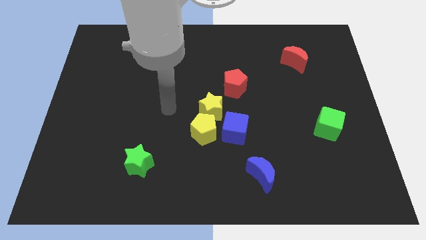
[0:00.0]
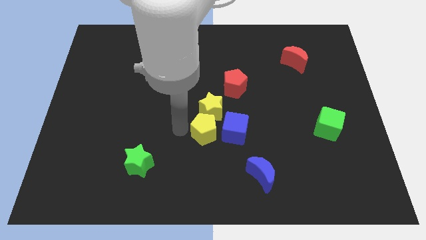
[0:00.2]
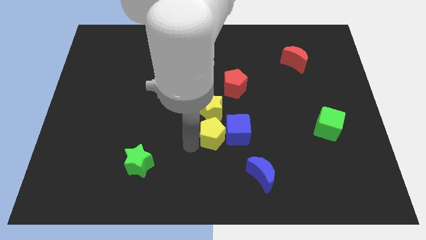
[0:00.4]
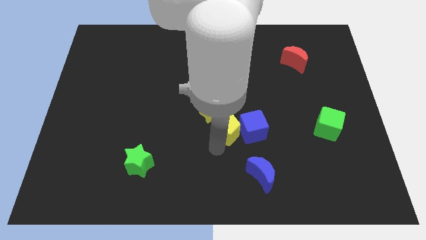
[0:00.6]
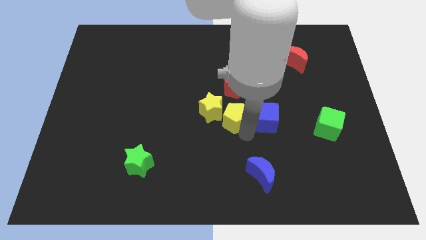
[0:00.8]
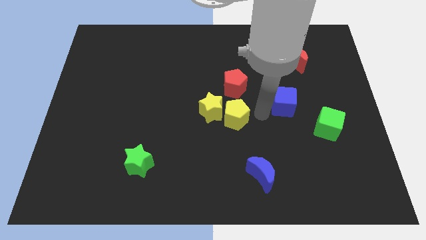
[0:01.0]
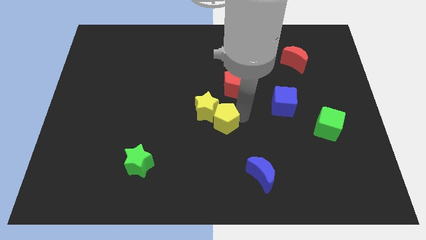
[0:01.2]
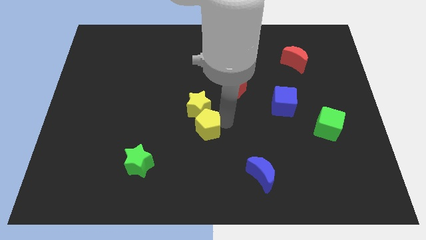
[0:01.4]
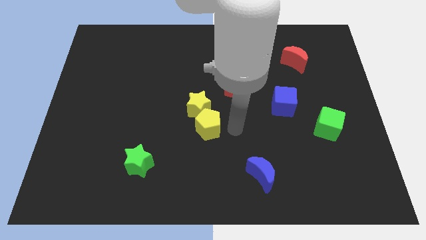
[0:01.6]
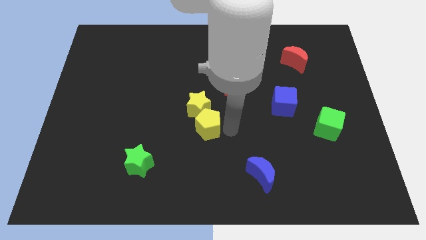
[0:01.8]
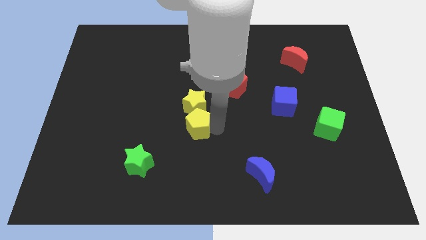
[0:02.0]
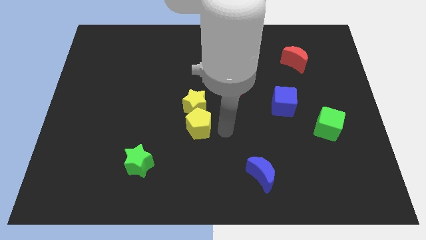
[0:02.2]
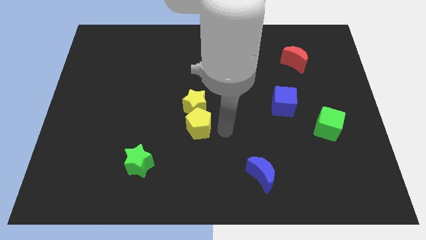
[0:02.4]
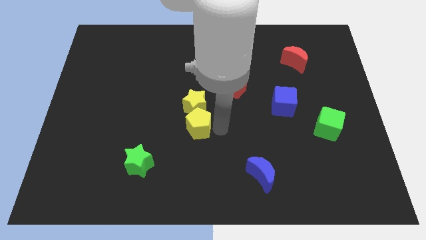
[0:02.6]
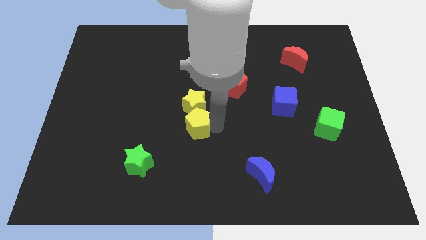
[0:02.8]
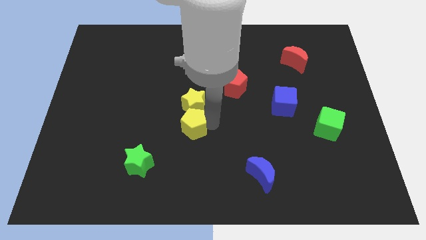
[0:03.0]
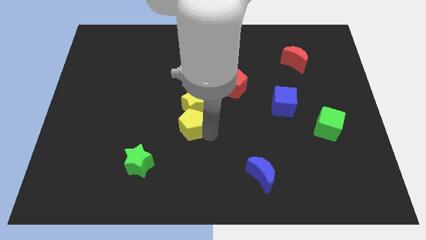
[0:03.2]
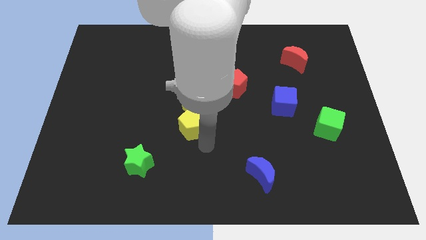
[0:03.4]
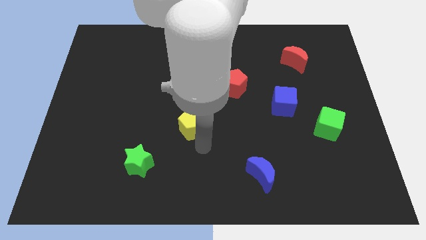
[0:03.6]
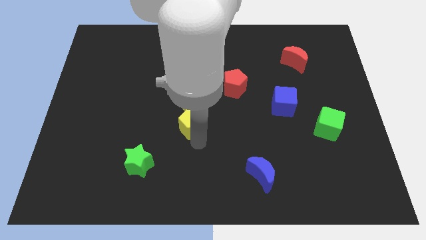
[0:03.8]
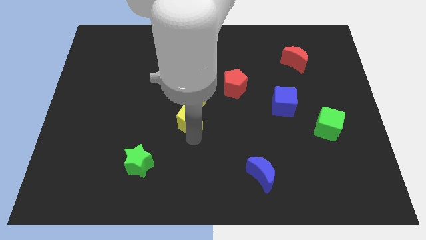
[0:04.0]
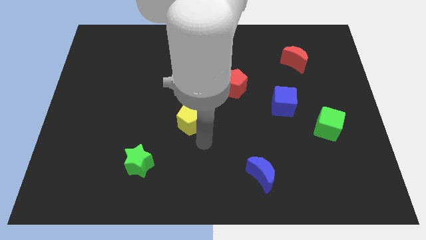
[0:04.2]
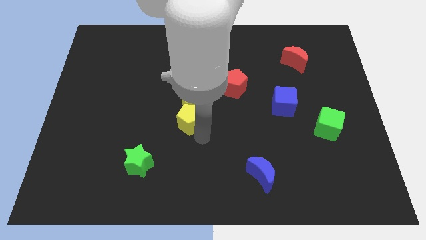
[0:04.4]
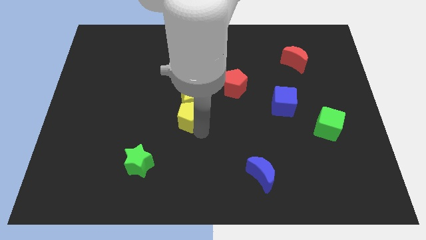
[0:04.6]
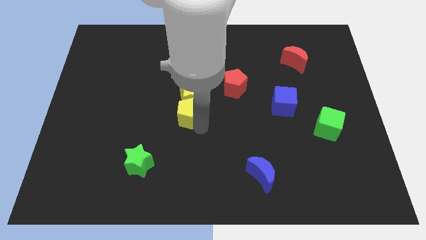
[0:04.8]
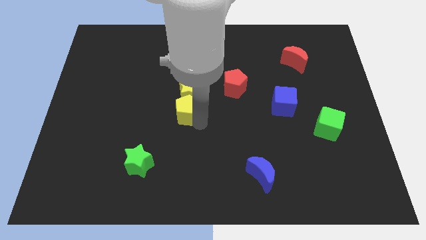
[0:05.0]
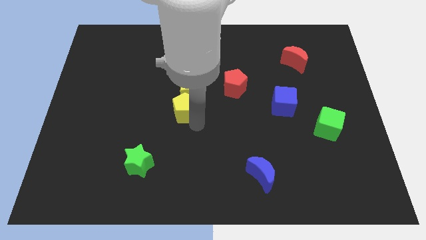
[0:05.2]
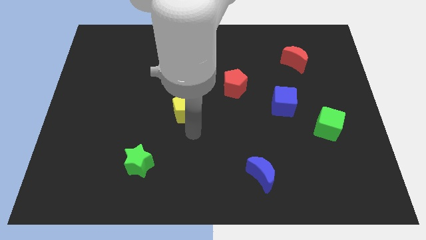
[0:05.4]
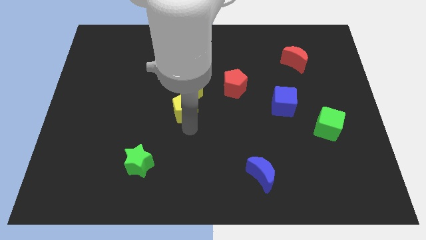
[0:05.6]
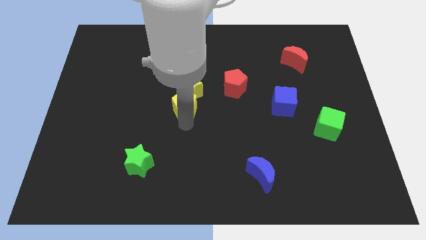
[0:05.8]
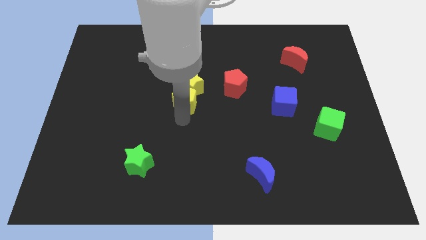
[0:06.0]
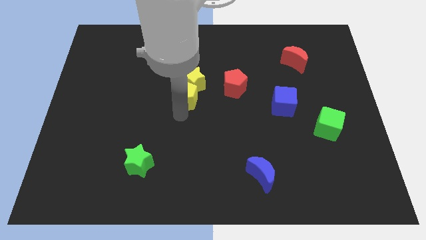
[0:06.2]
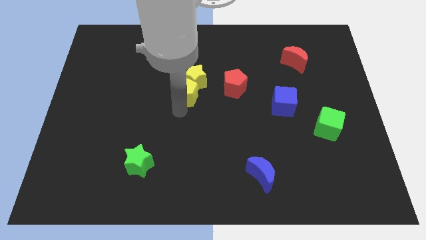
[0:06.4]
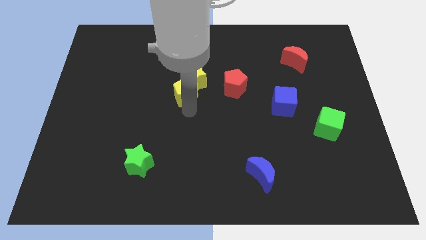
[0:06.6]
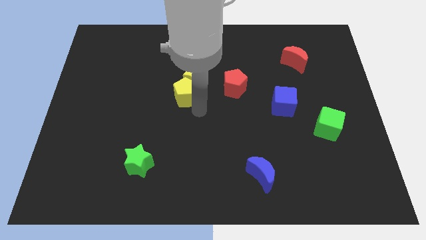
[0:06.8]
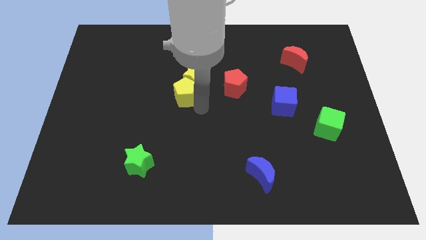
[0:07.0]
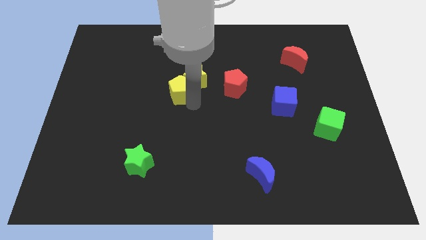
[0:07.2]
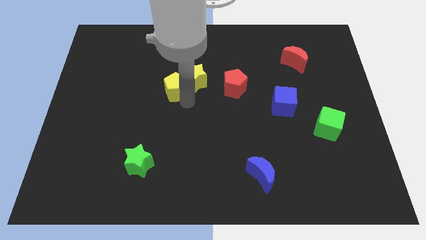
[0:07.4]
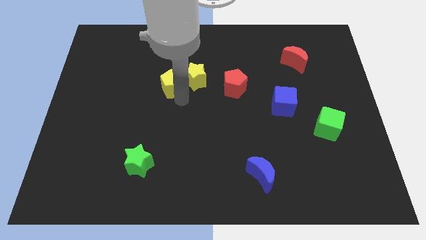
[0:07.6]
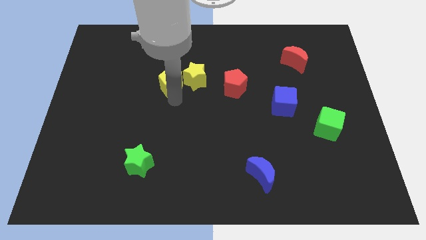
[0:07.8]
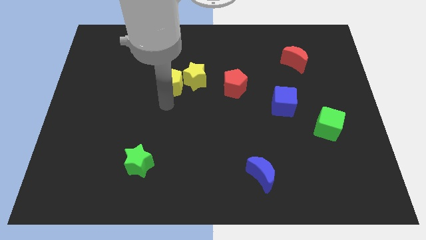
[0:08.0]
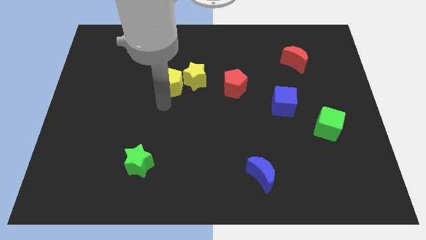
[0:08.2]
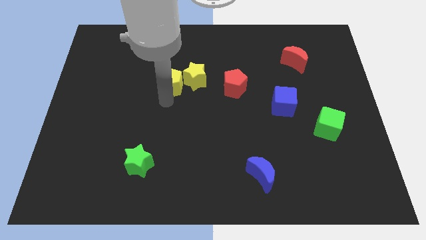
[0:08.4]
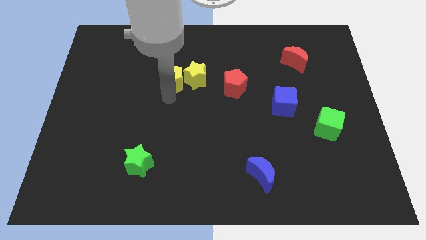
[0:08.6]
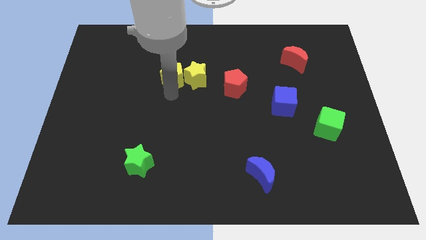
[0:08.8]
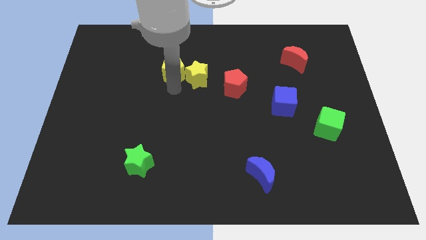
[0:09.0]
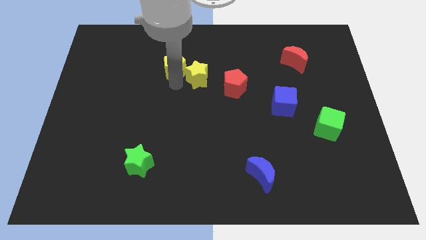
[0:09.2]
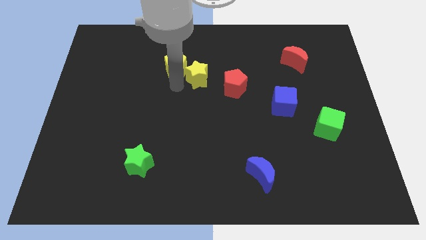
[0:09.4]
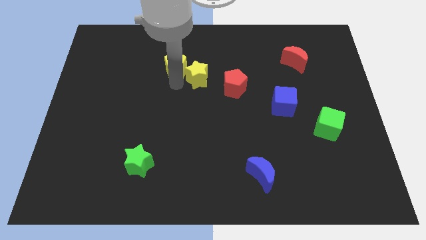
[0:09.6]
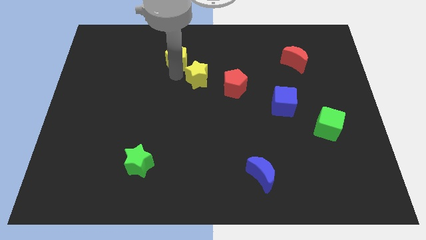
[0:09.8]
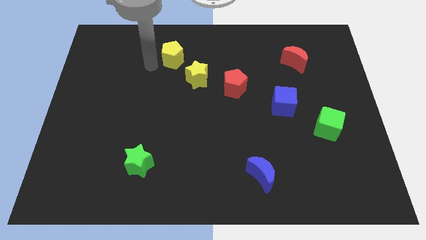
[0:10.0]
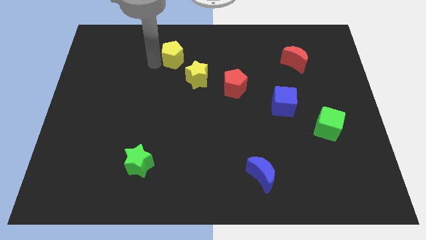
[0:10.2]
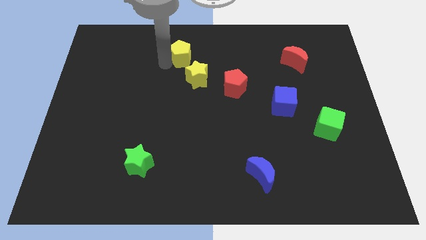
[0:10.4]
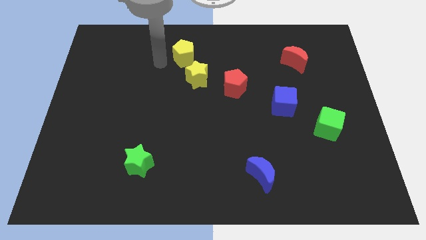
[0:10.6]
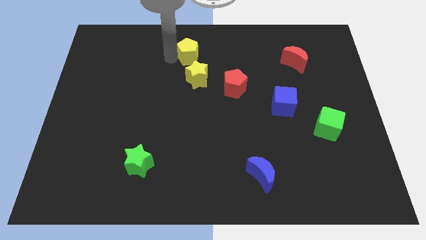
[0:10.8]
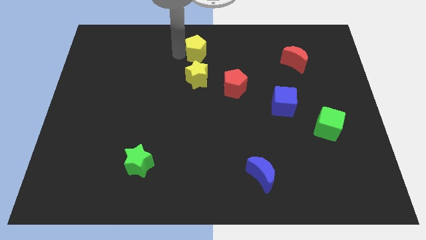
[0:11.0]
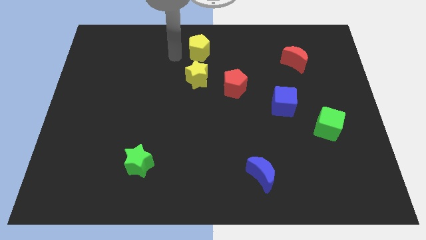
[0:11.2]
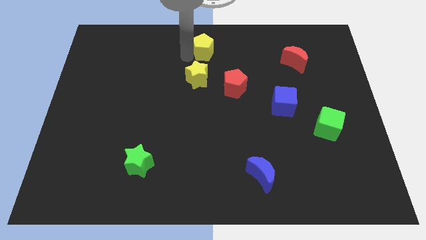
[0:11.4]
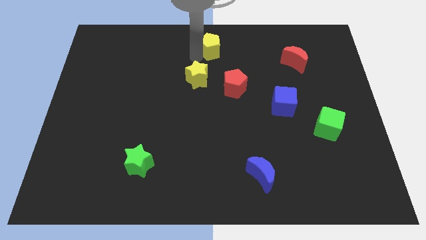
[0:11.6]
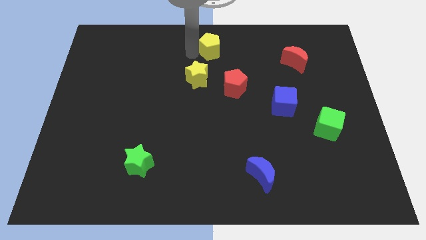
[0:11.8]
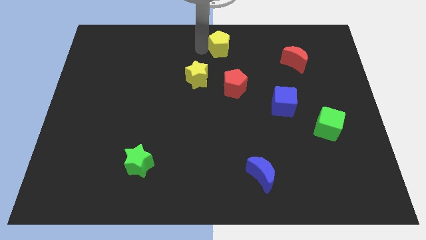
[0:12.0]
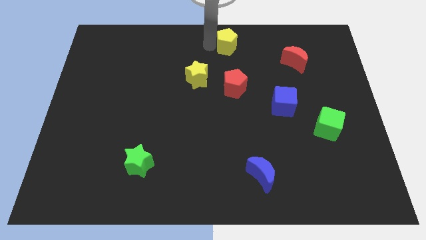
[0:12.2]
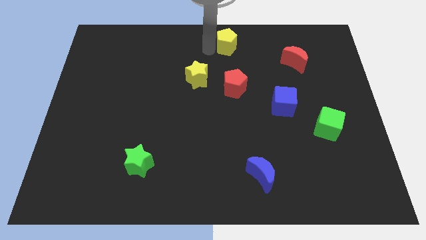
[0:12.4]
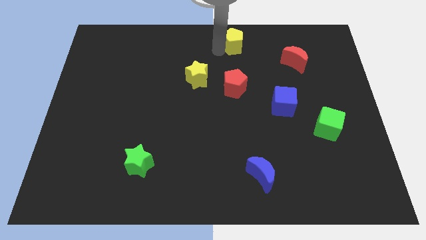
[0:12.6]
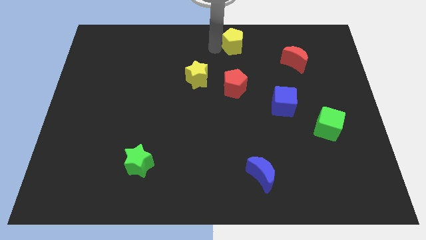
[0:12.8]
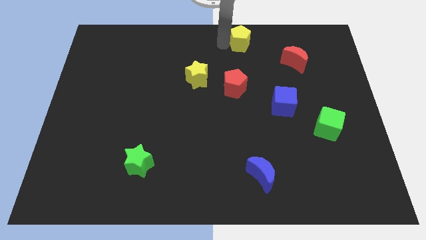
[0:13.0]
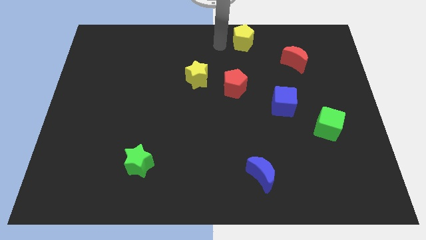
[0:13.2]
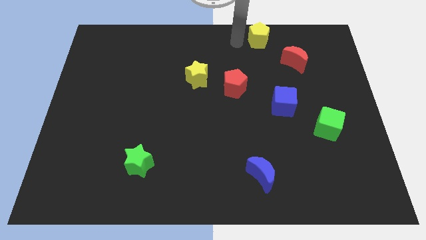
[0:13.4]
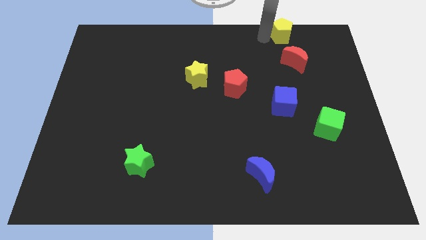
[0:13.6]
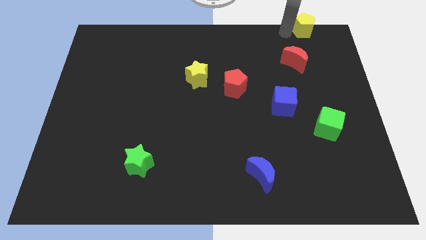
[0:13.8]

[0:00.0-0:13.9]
slide the yellow pentagon to the top right
